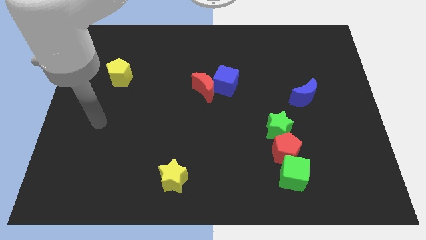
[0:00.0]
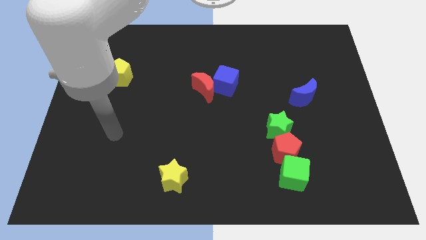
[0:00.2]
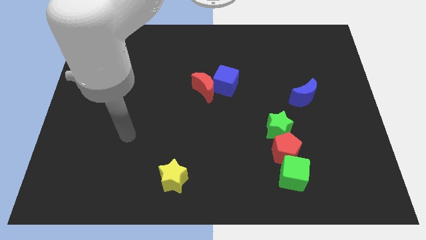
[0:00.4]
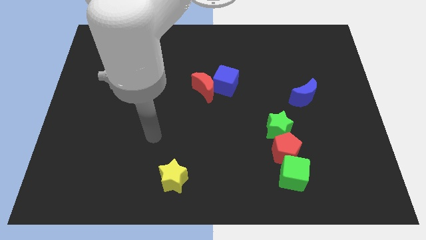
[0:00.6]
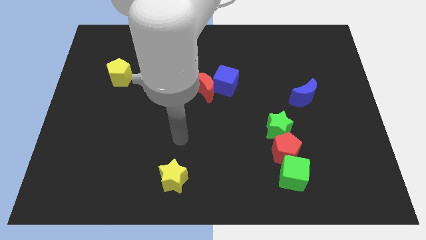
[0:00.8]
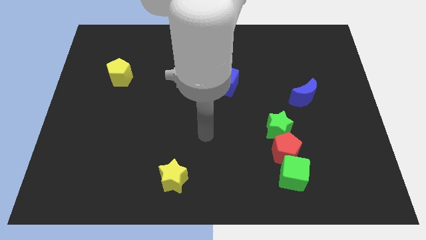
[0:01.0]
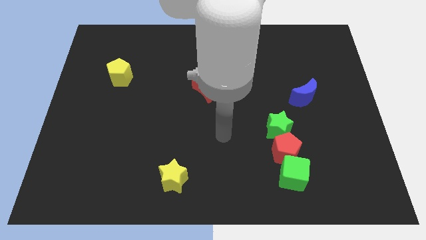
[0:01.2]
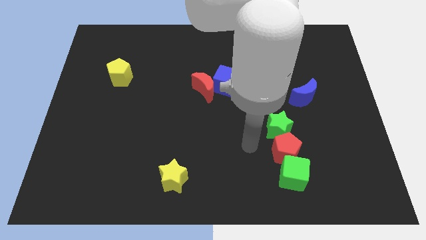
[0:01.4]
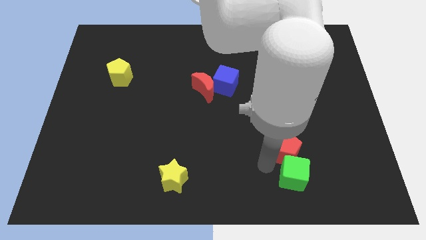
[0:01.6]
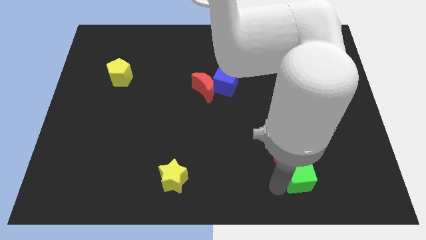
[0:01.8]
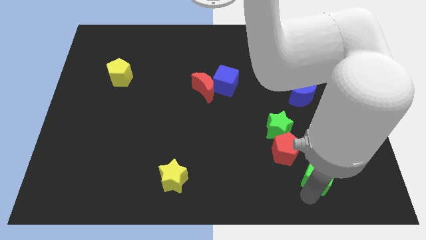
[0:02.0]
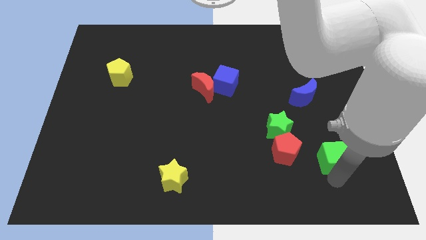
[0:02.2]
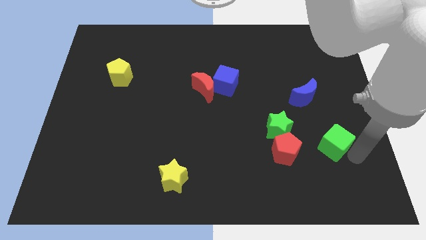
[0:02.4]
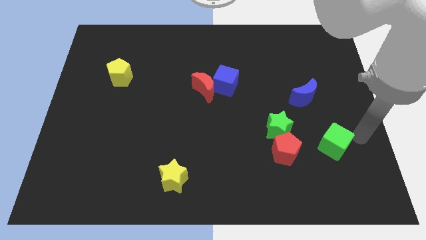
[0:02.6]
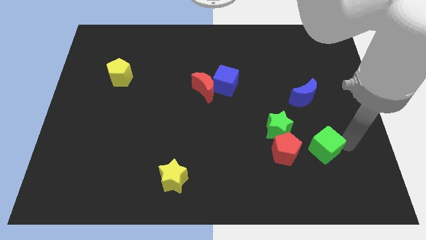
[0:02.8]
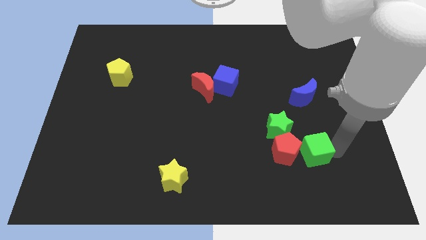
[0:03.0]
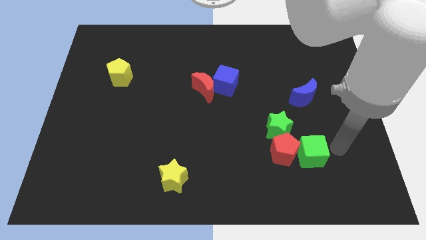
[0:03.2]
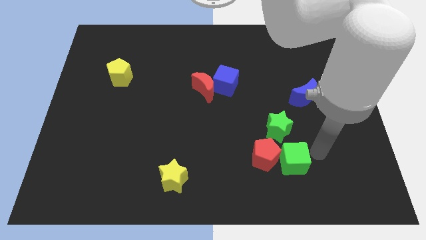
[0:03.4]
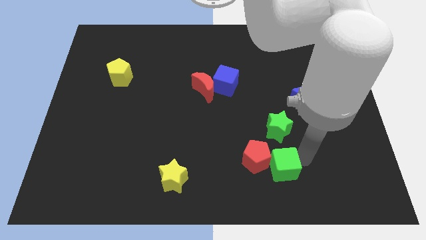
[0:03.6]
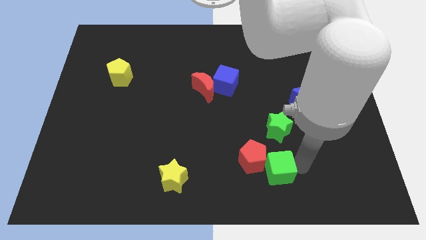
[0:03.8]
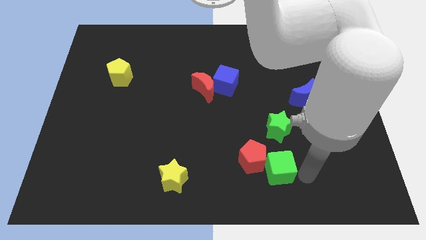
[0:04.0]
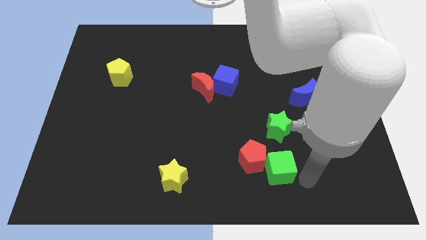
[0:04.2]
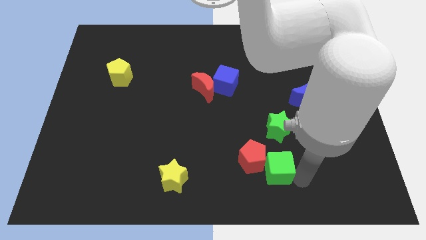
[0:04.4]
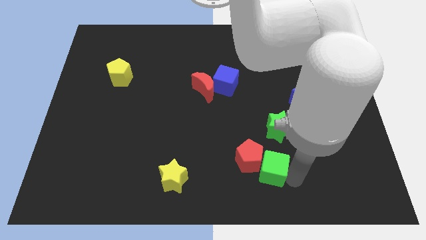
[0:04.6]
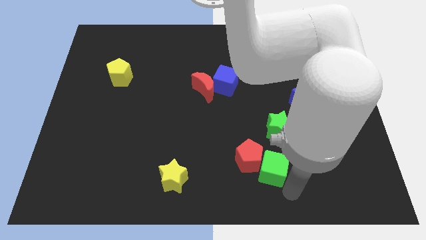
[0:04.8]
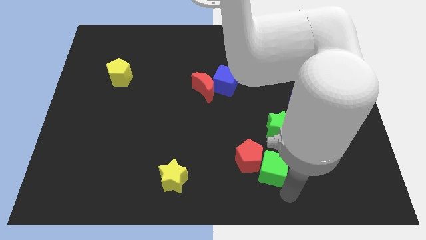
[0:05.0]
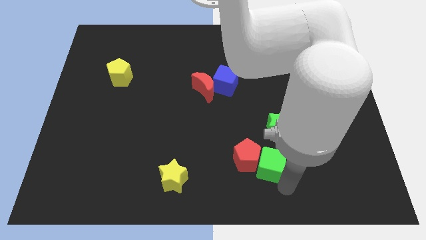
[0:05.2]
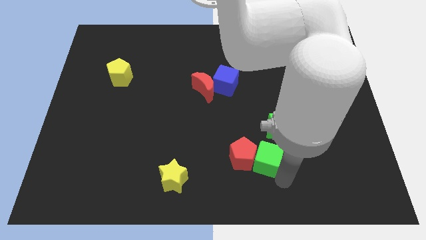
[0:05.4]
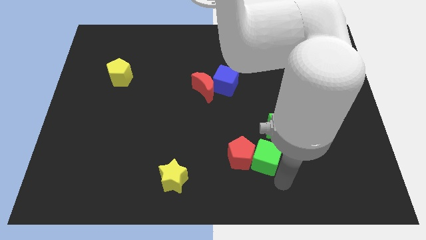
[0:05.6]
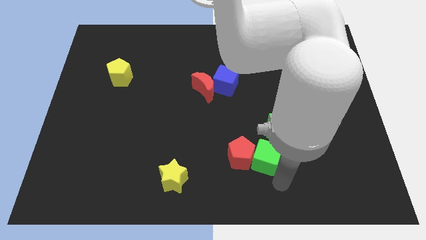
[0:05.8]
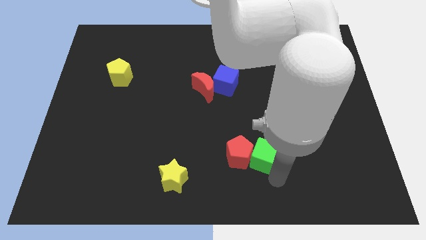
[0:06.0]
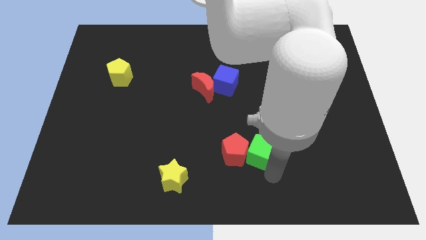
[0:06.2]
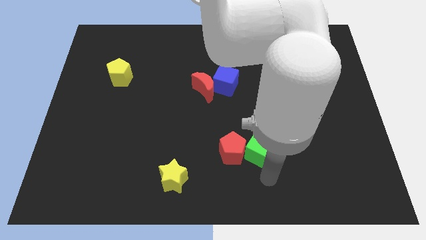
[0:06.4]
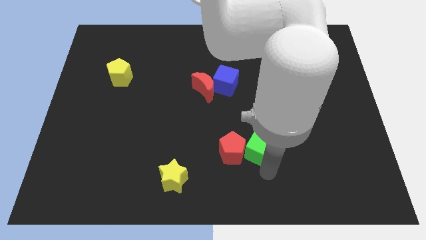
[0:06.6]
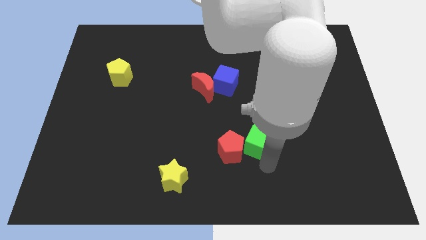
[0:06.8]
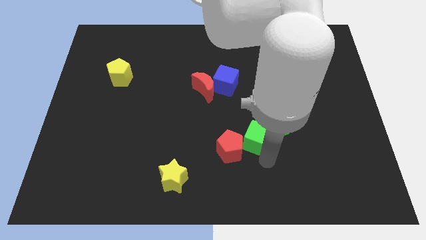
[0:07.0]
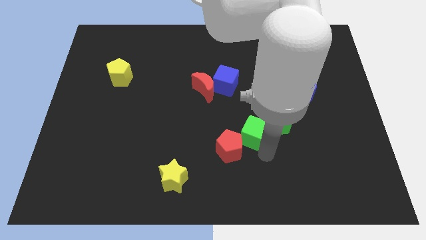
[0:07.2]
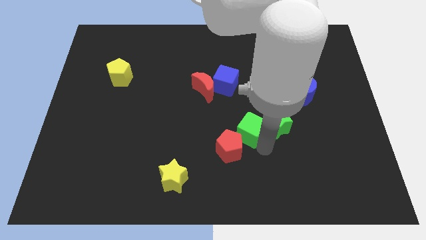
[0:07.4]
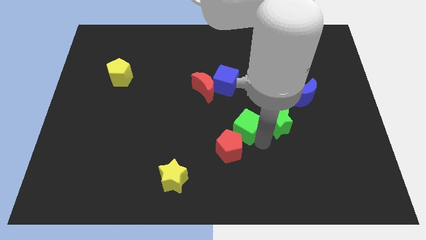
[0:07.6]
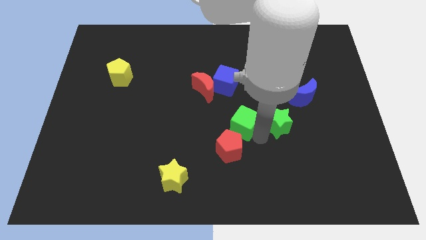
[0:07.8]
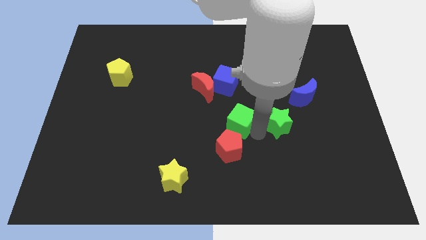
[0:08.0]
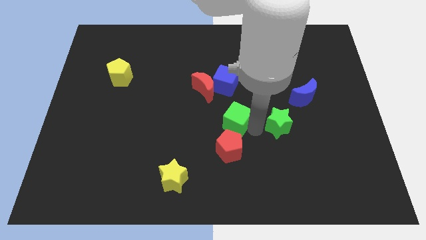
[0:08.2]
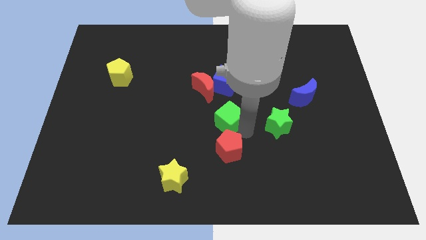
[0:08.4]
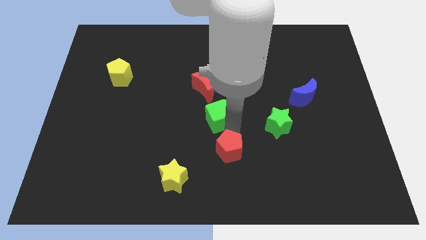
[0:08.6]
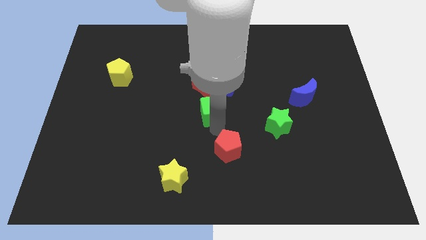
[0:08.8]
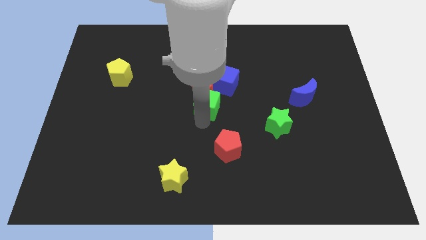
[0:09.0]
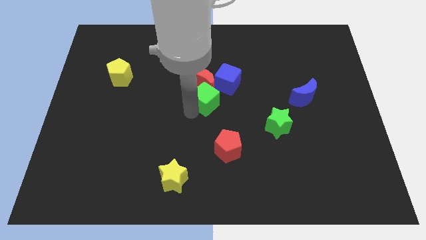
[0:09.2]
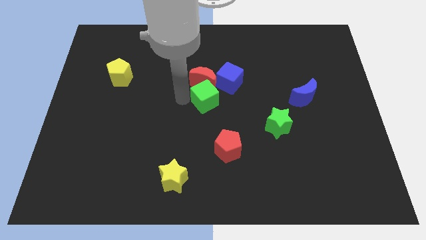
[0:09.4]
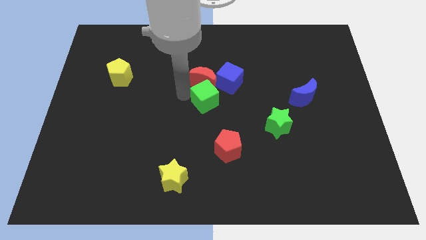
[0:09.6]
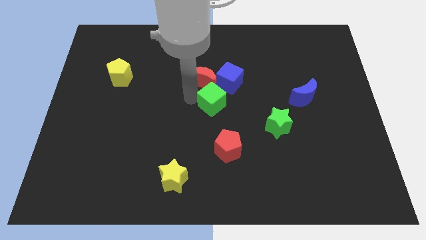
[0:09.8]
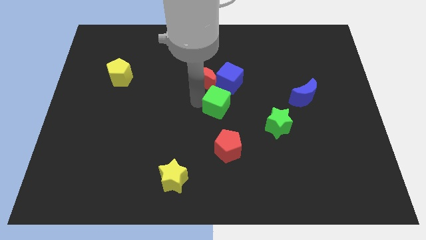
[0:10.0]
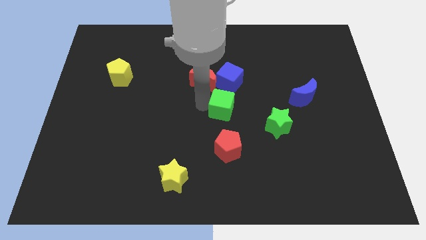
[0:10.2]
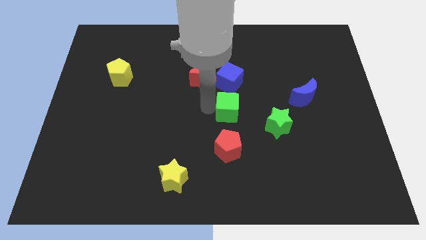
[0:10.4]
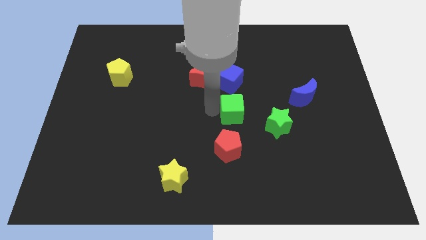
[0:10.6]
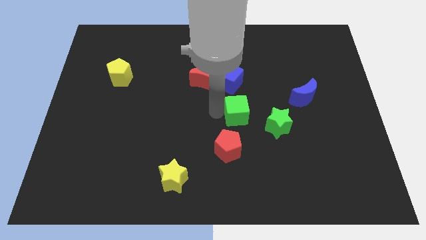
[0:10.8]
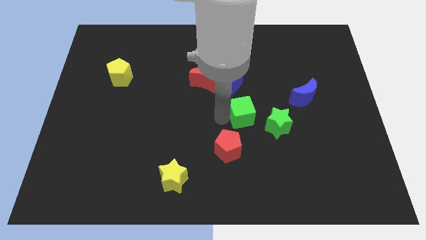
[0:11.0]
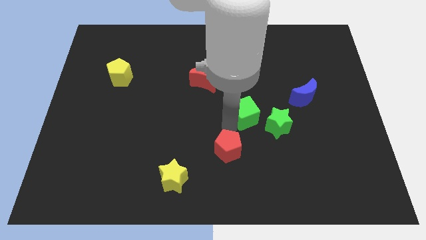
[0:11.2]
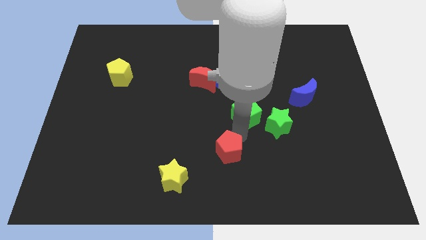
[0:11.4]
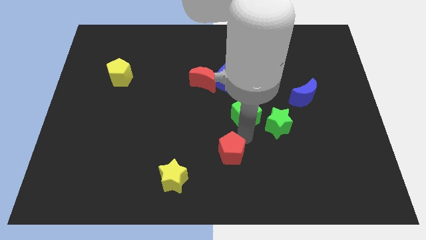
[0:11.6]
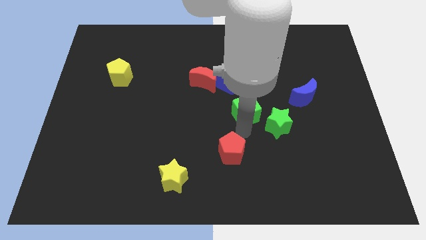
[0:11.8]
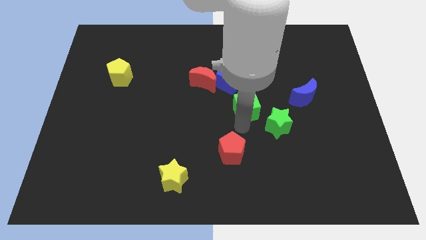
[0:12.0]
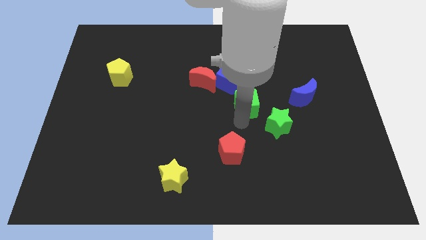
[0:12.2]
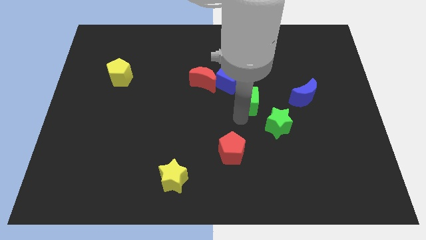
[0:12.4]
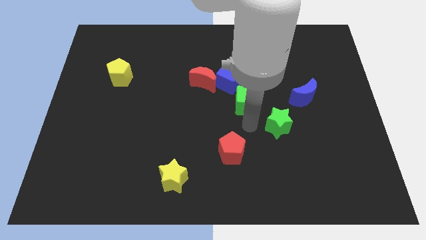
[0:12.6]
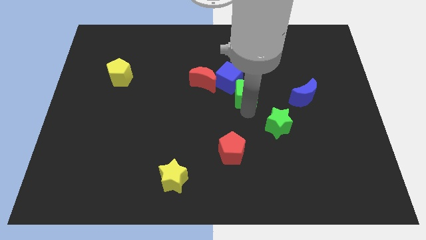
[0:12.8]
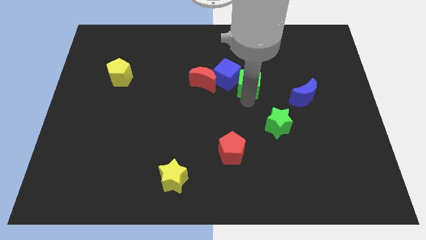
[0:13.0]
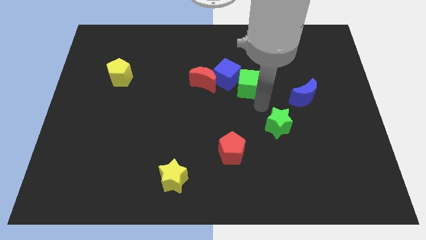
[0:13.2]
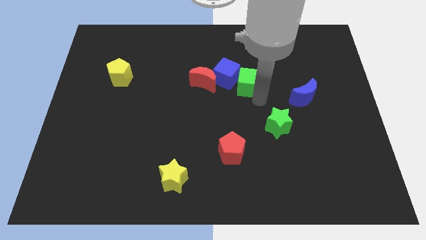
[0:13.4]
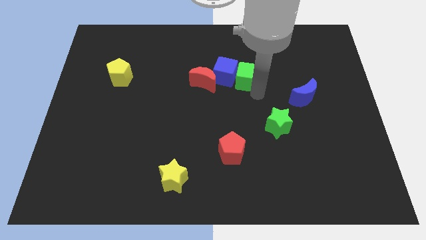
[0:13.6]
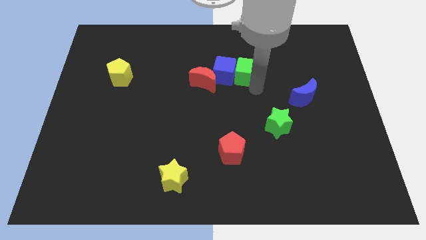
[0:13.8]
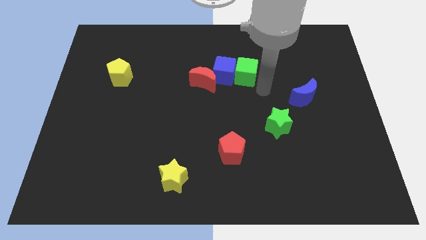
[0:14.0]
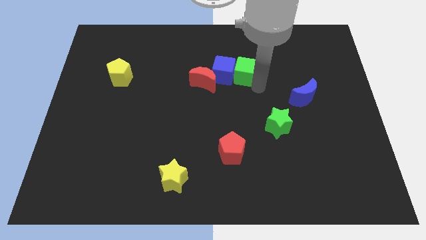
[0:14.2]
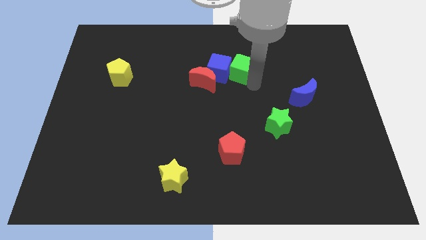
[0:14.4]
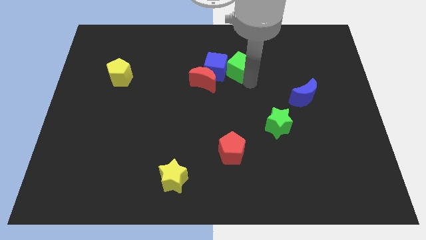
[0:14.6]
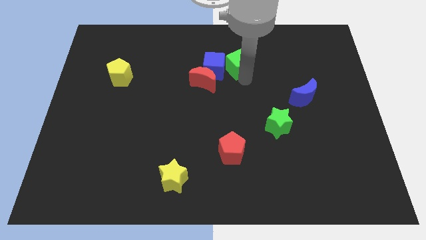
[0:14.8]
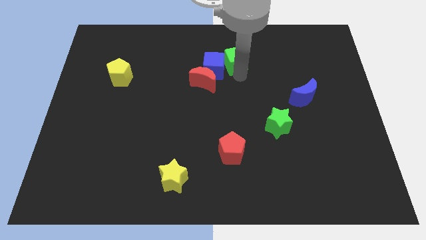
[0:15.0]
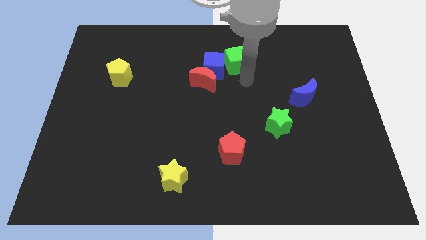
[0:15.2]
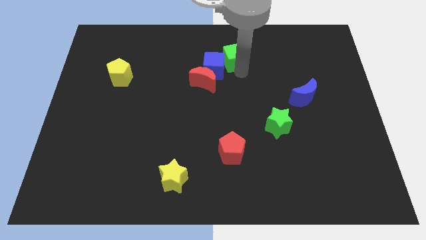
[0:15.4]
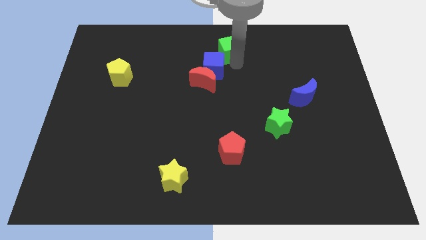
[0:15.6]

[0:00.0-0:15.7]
push the green cube to the top

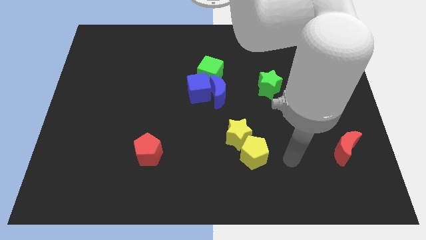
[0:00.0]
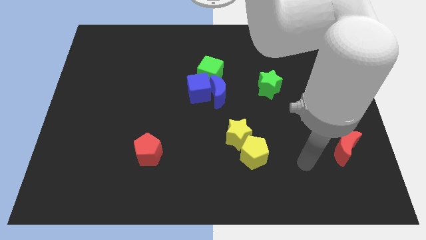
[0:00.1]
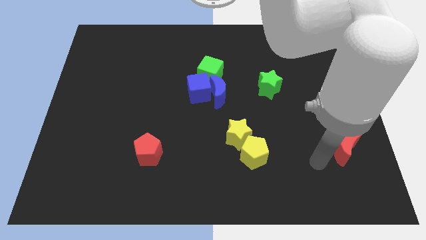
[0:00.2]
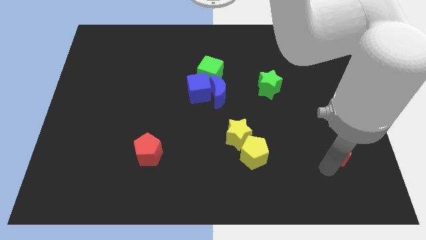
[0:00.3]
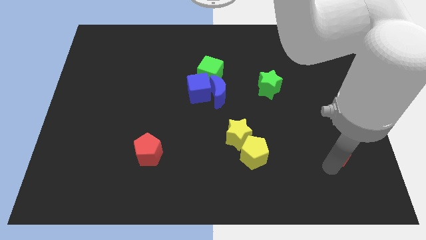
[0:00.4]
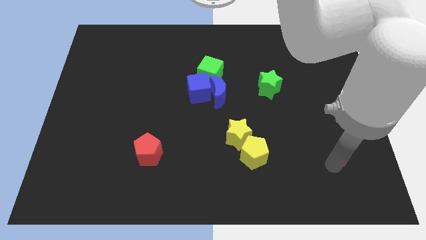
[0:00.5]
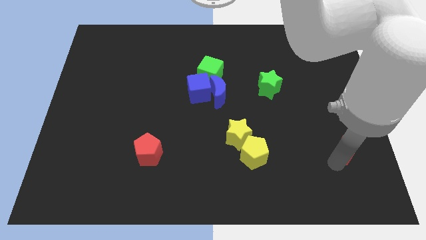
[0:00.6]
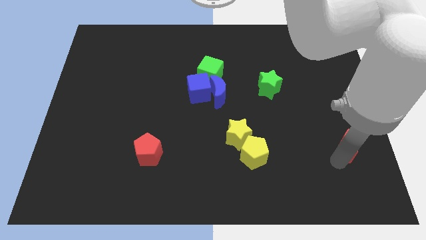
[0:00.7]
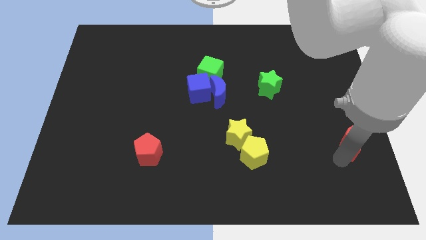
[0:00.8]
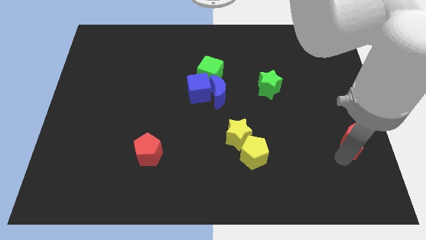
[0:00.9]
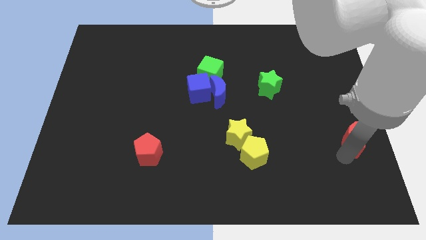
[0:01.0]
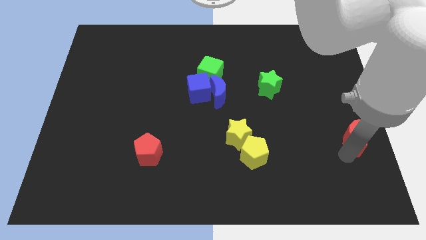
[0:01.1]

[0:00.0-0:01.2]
push the red moon to the right side of the board
